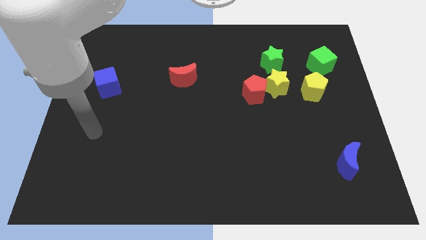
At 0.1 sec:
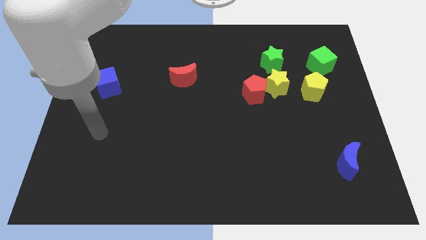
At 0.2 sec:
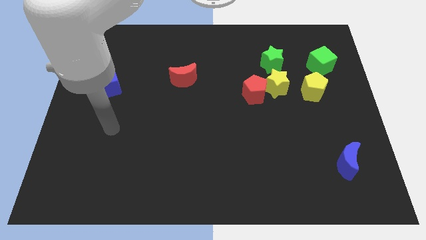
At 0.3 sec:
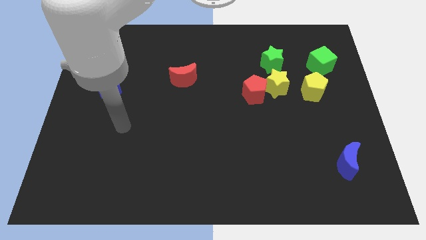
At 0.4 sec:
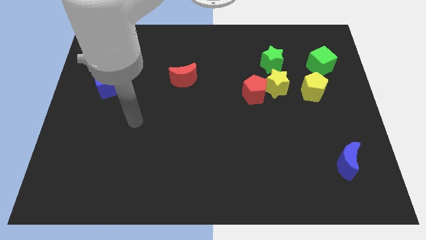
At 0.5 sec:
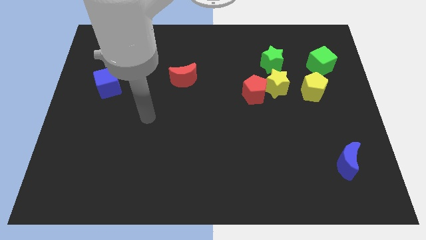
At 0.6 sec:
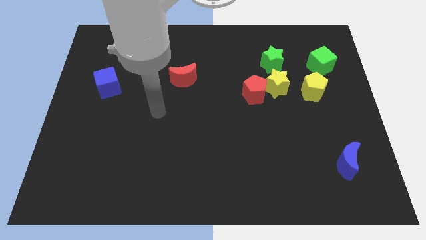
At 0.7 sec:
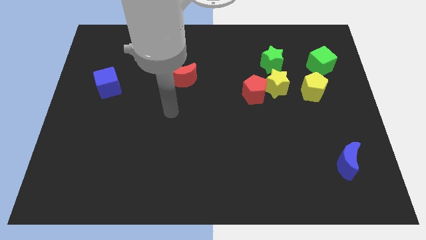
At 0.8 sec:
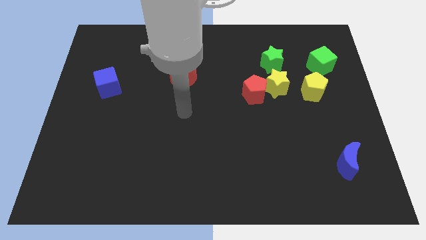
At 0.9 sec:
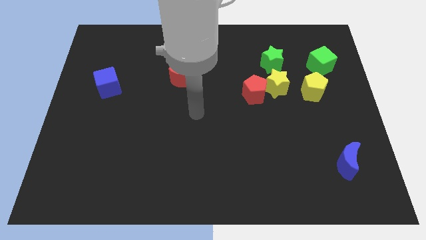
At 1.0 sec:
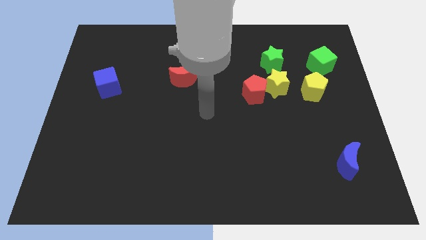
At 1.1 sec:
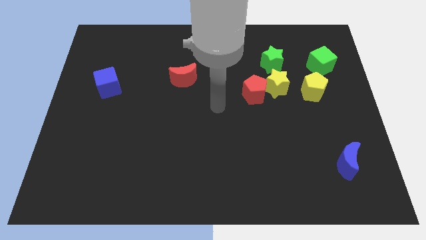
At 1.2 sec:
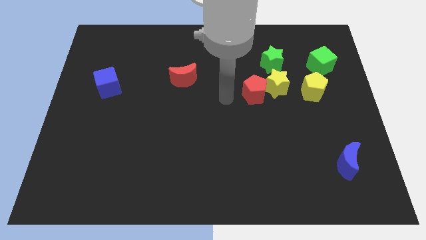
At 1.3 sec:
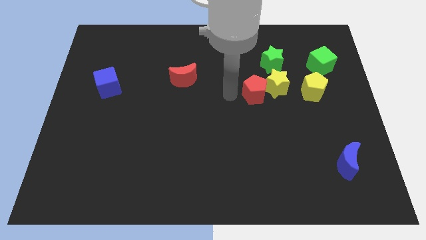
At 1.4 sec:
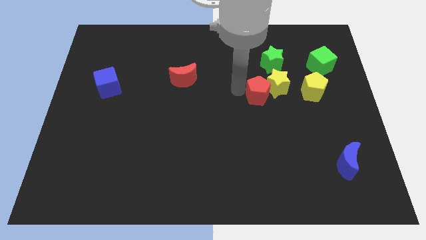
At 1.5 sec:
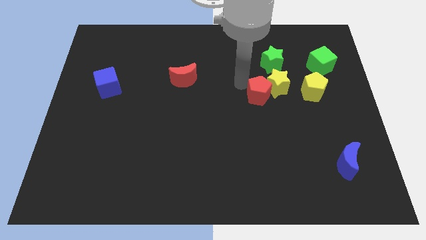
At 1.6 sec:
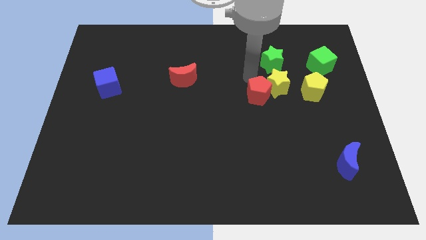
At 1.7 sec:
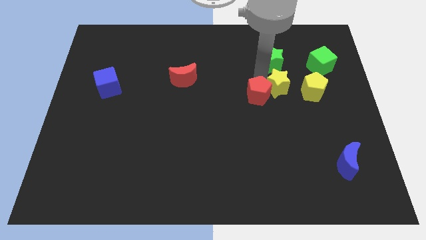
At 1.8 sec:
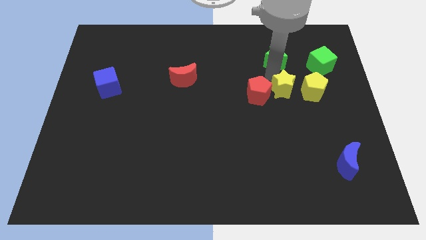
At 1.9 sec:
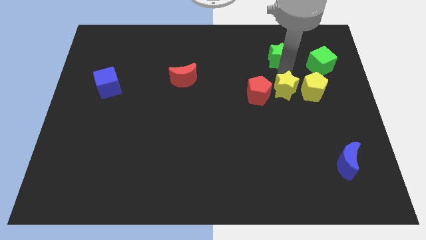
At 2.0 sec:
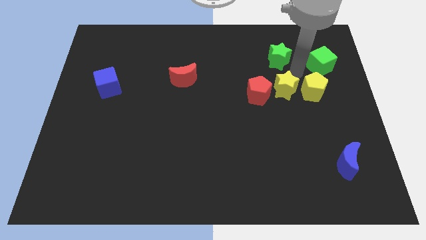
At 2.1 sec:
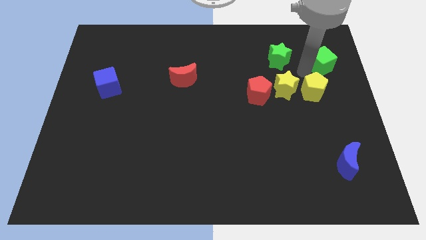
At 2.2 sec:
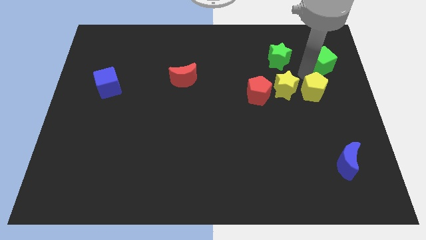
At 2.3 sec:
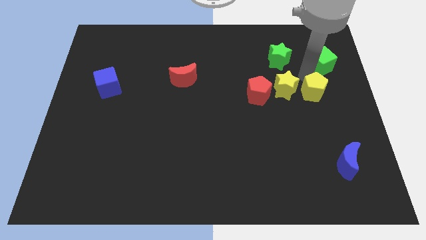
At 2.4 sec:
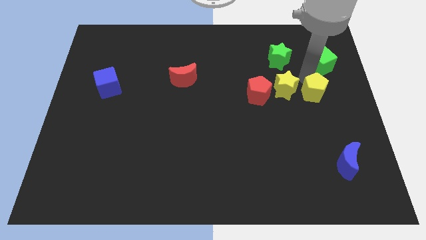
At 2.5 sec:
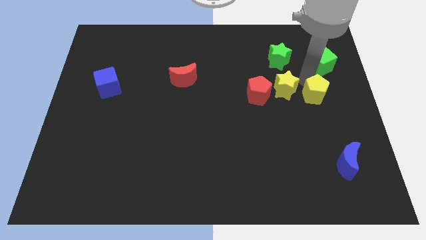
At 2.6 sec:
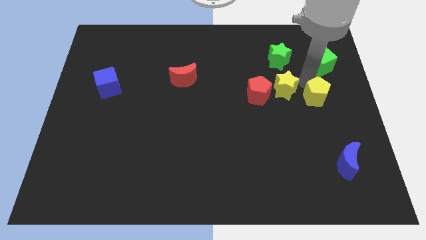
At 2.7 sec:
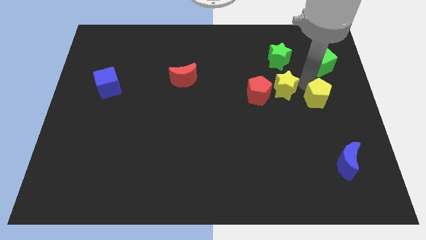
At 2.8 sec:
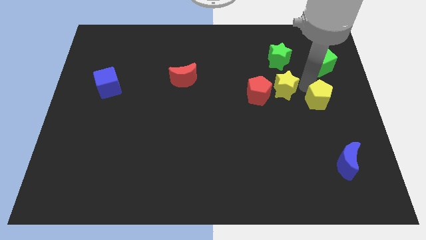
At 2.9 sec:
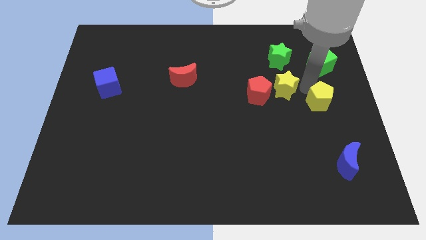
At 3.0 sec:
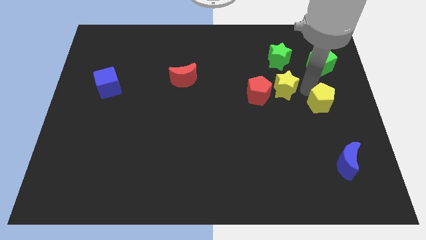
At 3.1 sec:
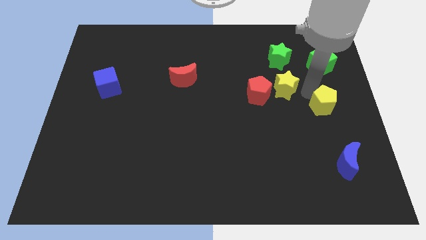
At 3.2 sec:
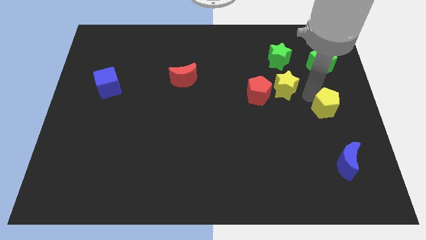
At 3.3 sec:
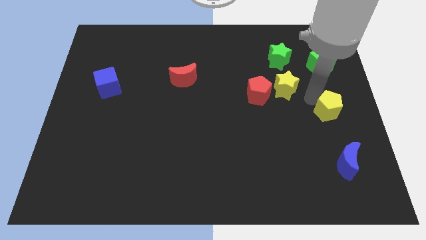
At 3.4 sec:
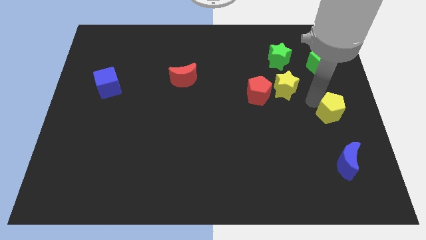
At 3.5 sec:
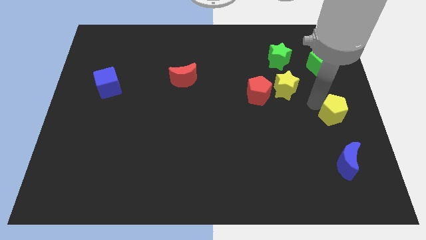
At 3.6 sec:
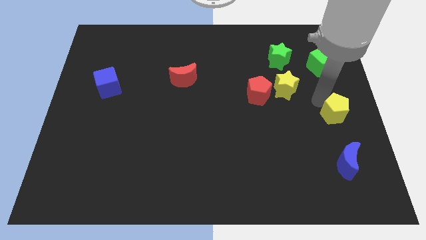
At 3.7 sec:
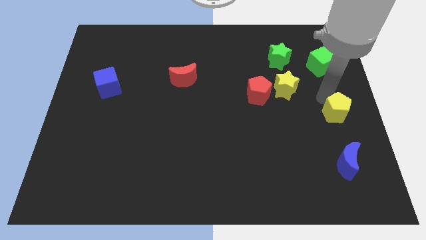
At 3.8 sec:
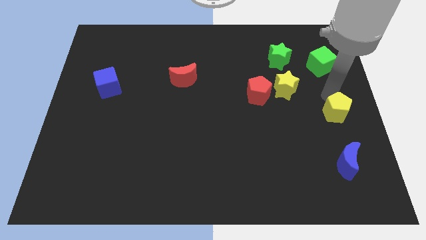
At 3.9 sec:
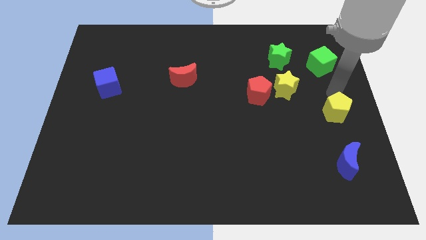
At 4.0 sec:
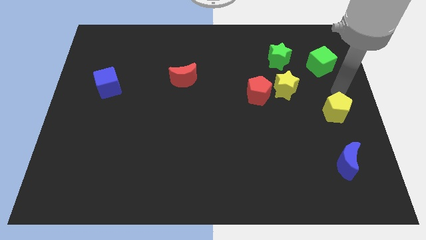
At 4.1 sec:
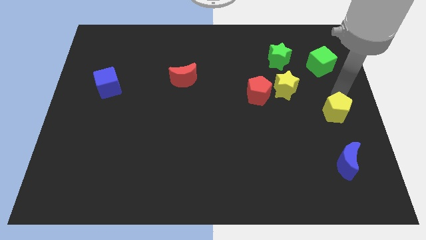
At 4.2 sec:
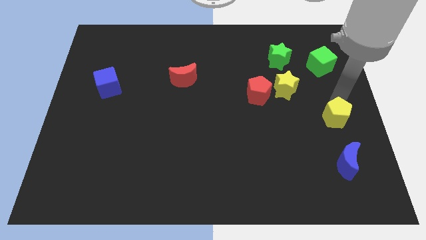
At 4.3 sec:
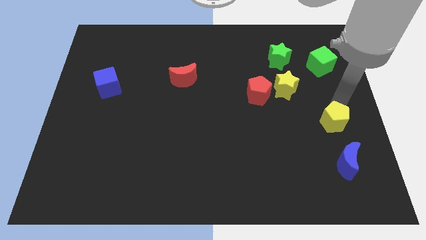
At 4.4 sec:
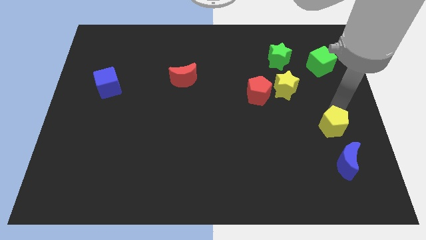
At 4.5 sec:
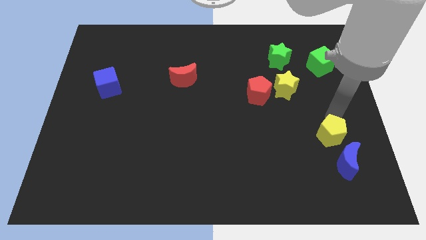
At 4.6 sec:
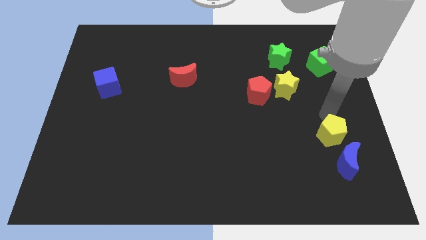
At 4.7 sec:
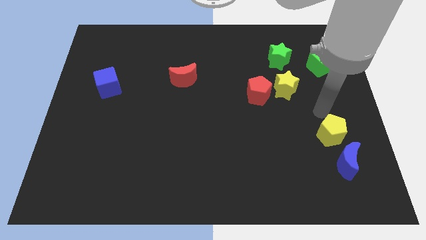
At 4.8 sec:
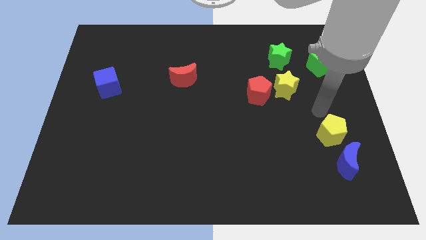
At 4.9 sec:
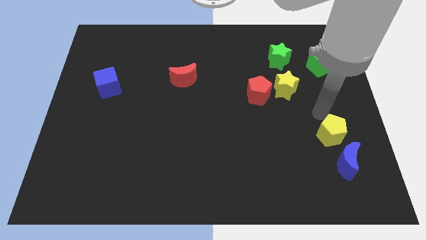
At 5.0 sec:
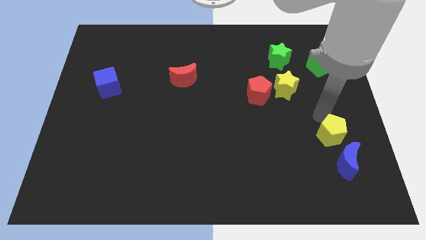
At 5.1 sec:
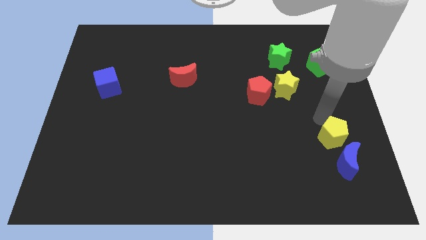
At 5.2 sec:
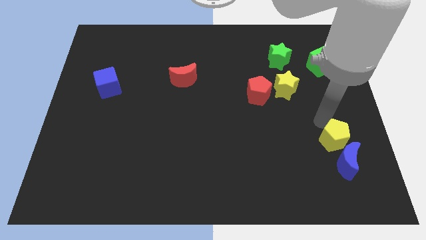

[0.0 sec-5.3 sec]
push the yellow pentagon close to the blue moon

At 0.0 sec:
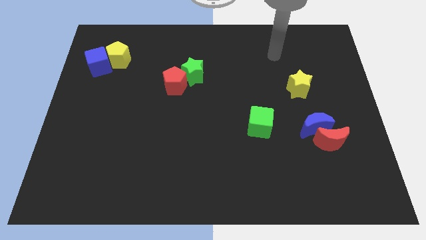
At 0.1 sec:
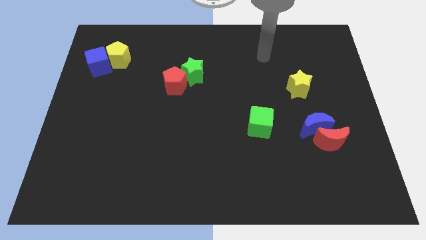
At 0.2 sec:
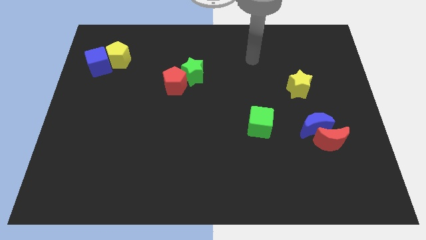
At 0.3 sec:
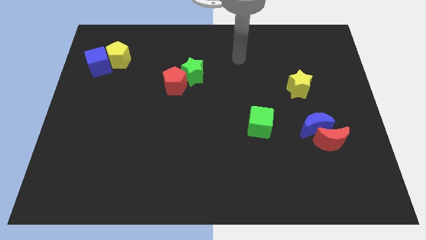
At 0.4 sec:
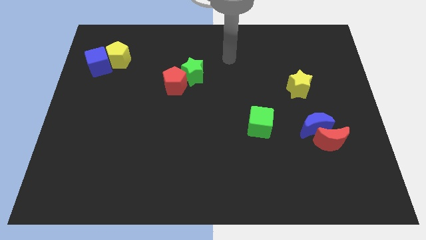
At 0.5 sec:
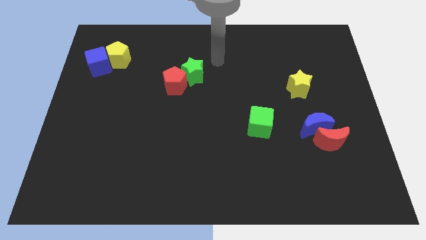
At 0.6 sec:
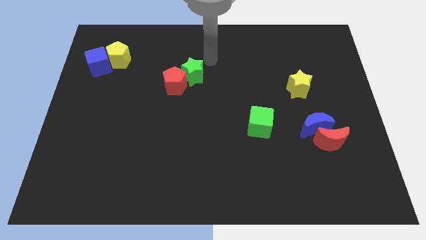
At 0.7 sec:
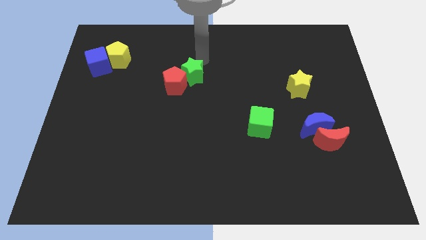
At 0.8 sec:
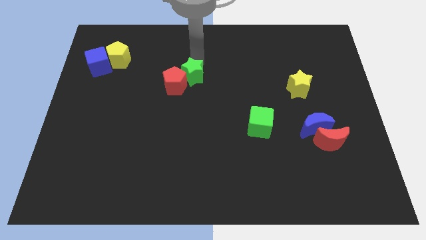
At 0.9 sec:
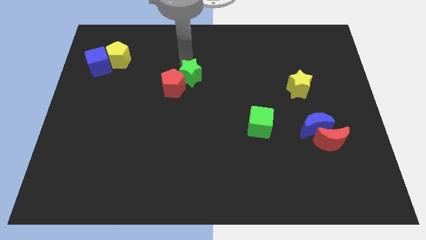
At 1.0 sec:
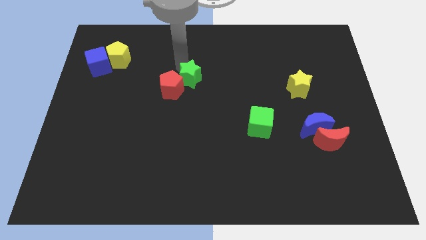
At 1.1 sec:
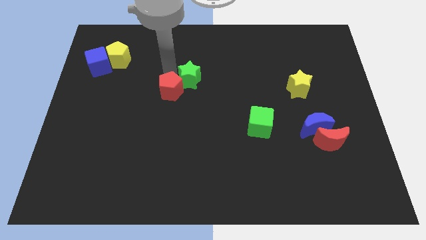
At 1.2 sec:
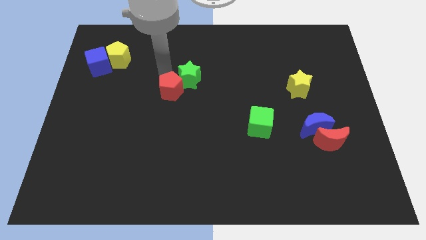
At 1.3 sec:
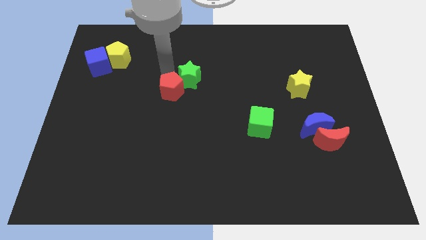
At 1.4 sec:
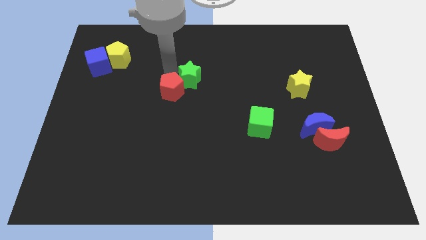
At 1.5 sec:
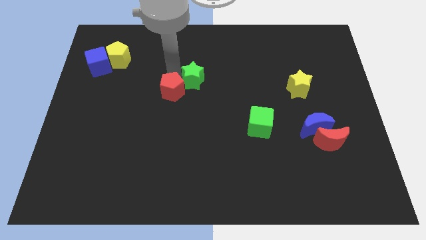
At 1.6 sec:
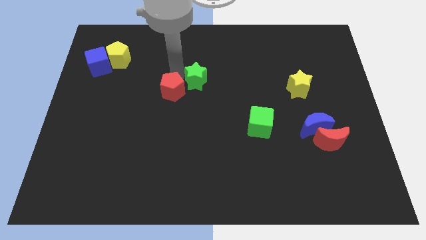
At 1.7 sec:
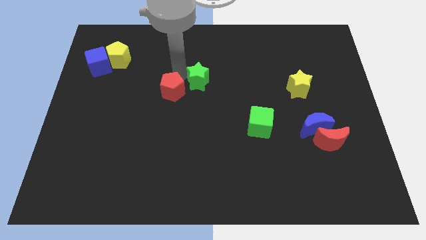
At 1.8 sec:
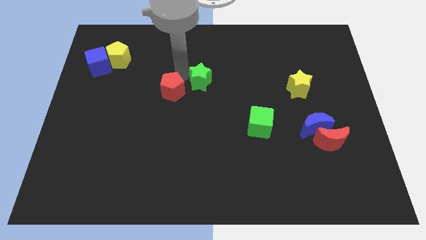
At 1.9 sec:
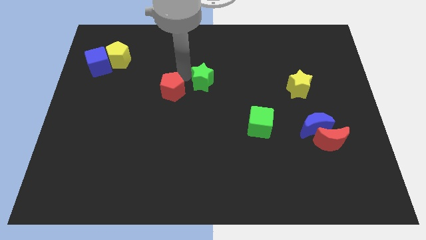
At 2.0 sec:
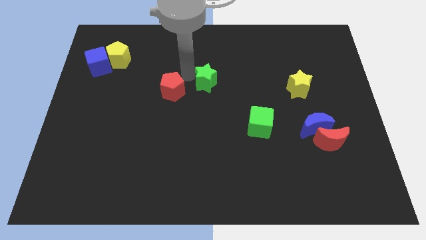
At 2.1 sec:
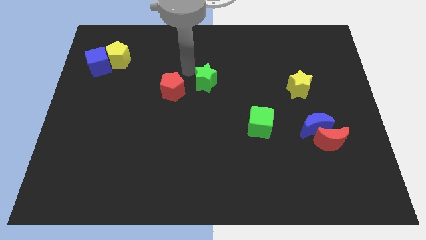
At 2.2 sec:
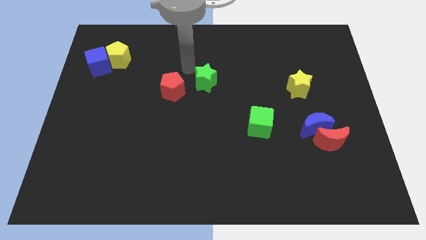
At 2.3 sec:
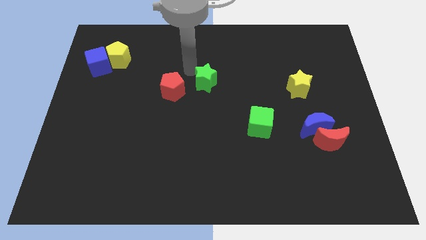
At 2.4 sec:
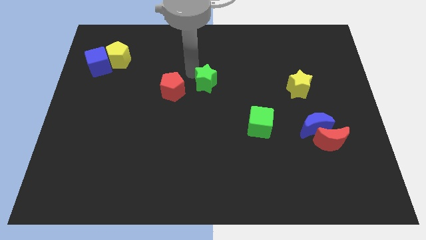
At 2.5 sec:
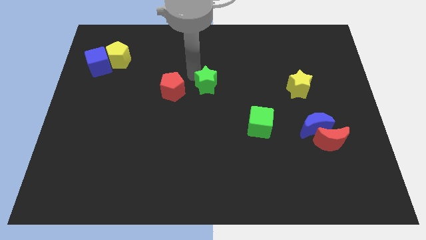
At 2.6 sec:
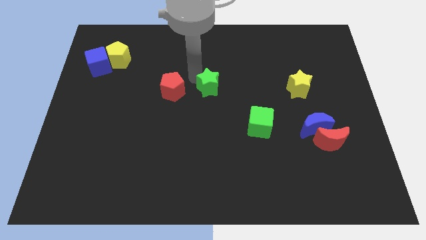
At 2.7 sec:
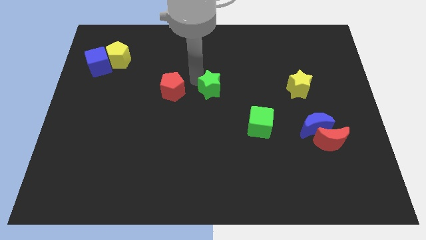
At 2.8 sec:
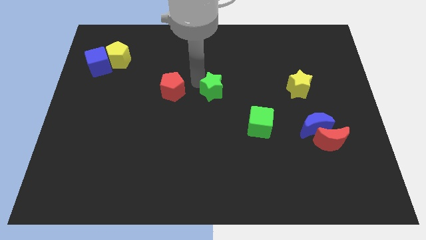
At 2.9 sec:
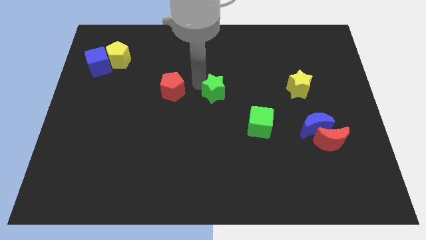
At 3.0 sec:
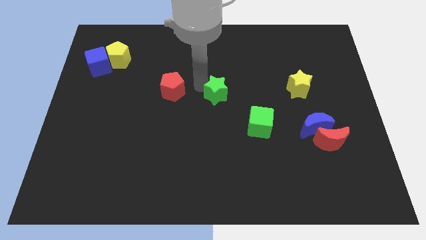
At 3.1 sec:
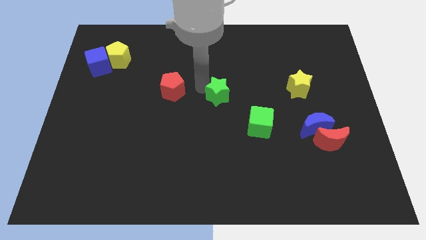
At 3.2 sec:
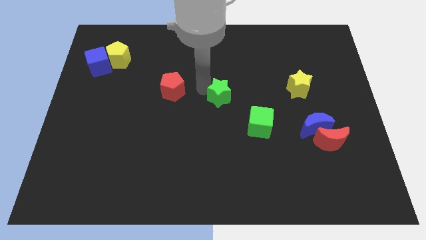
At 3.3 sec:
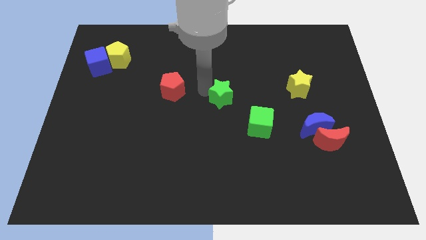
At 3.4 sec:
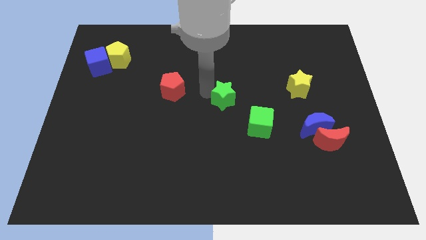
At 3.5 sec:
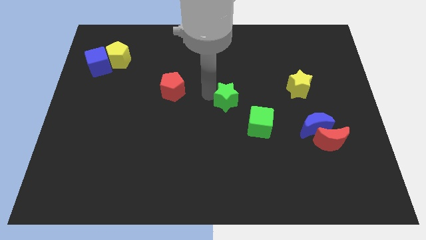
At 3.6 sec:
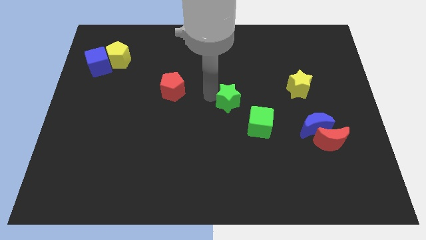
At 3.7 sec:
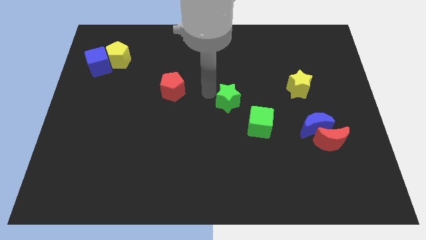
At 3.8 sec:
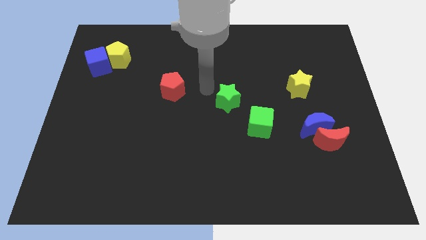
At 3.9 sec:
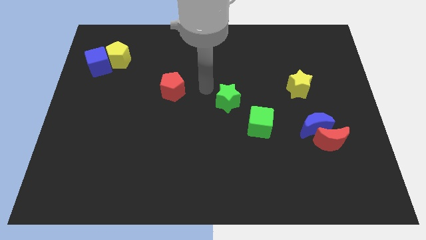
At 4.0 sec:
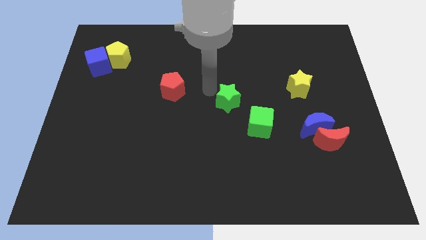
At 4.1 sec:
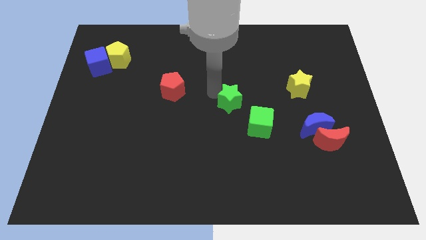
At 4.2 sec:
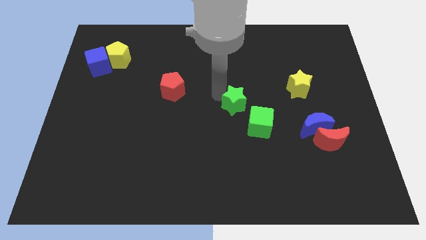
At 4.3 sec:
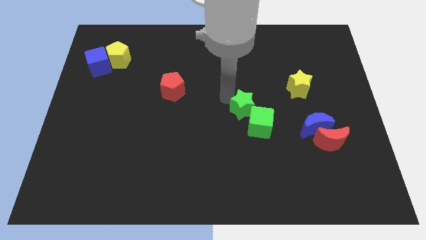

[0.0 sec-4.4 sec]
put the green star to the green cube
